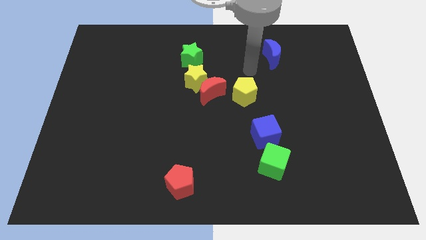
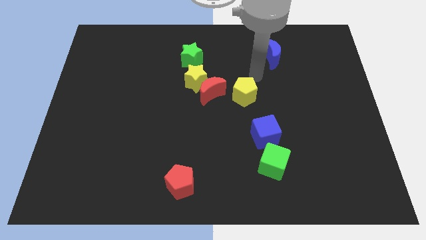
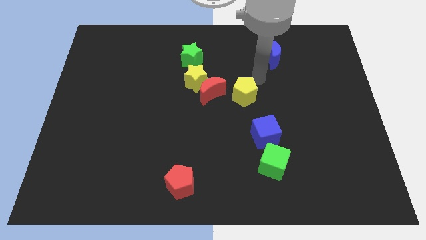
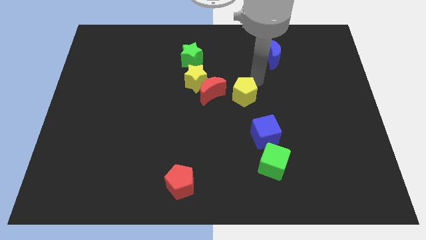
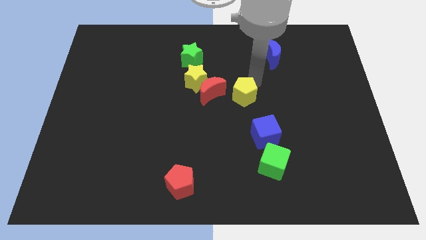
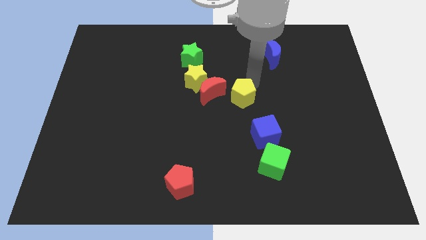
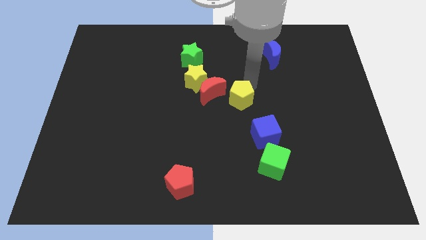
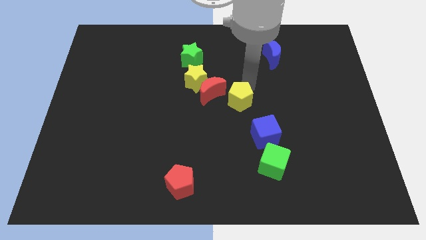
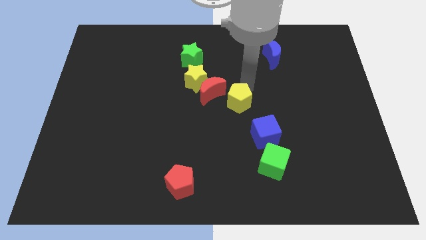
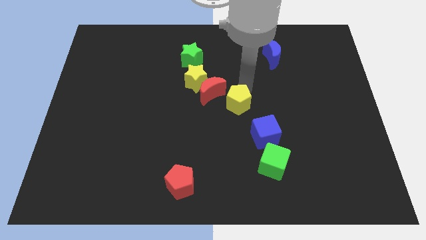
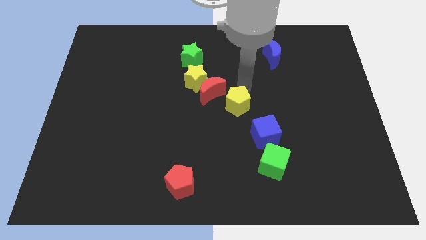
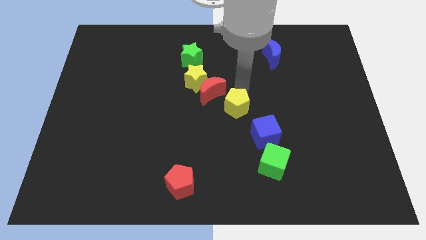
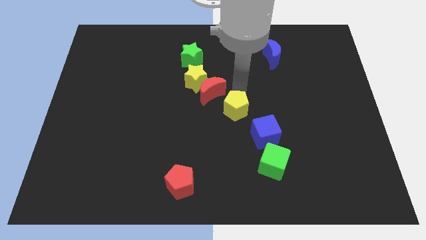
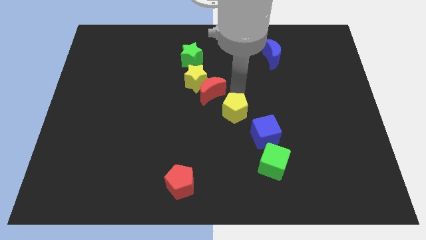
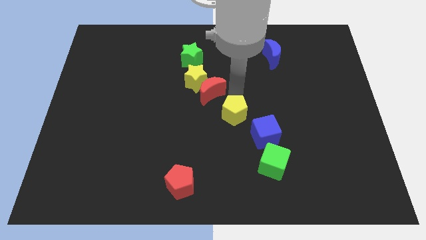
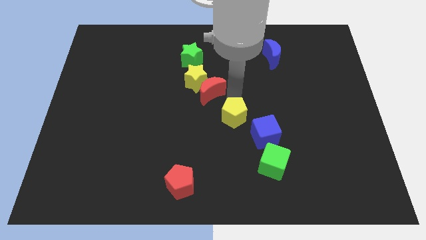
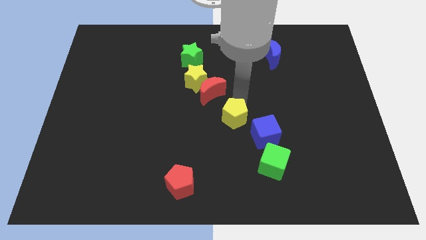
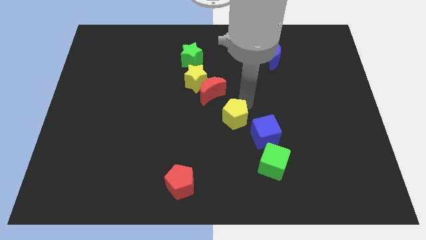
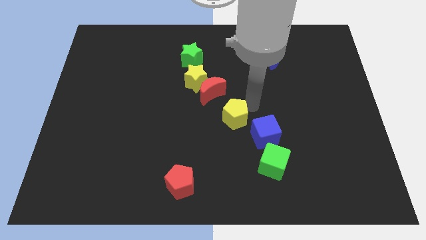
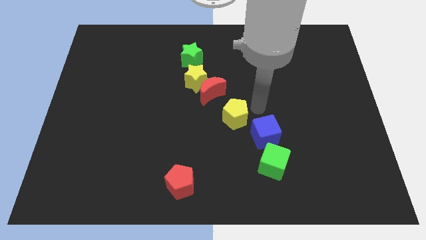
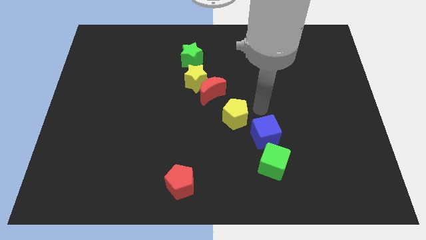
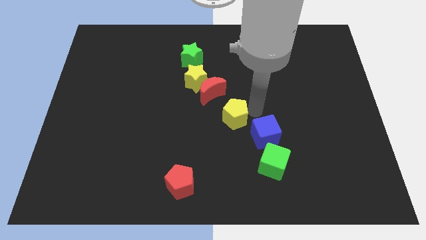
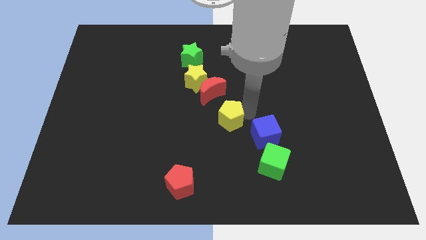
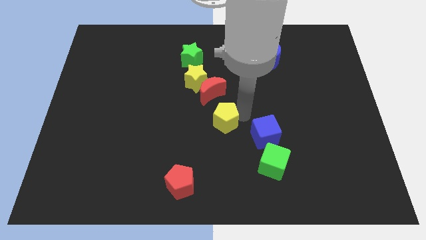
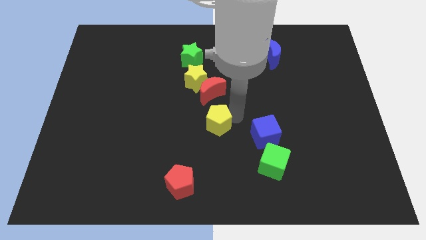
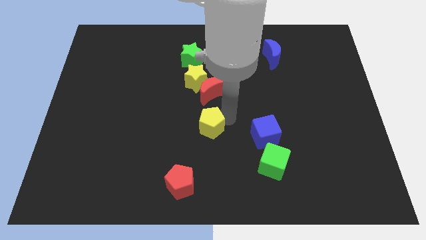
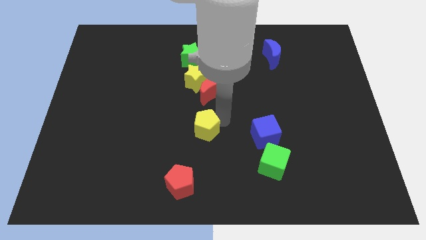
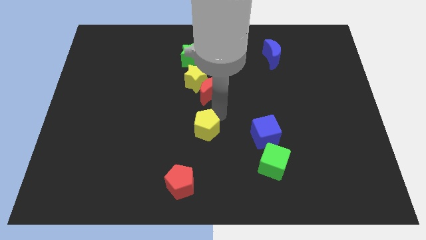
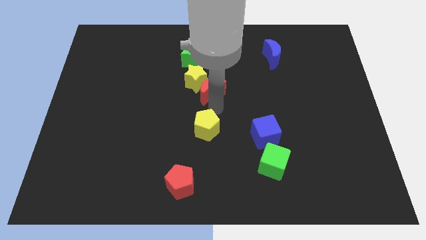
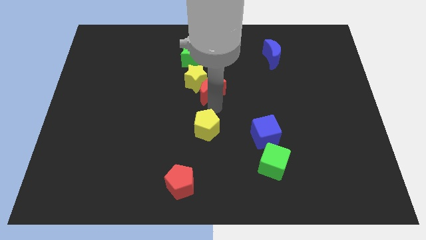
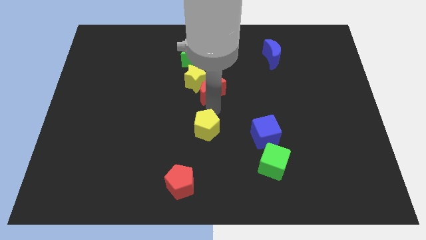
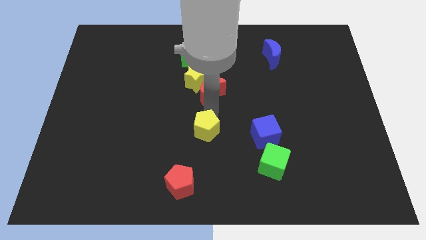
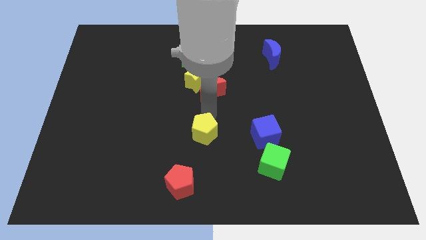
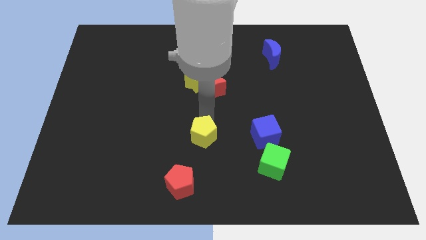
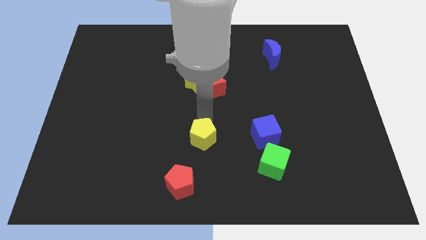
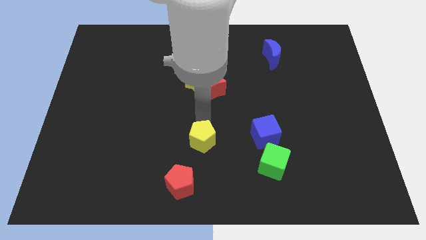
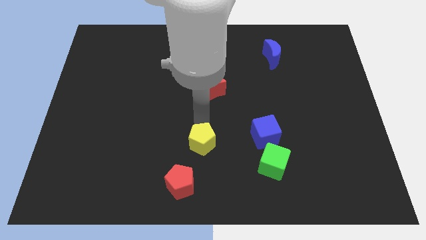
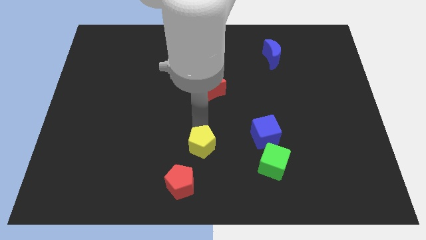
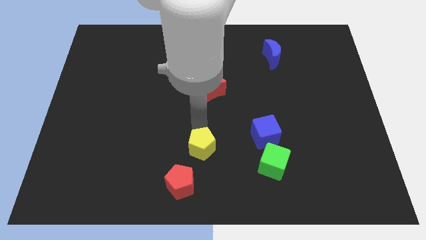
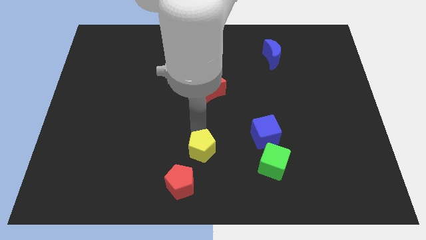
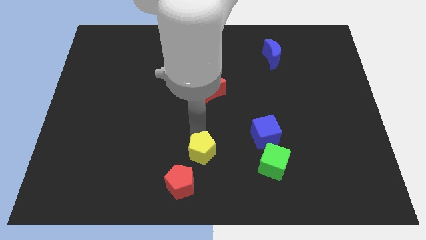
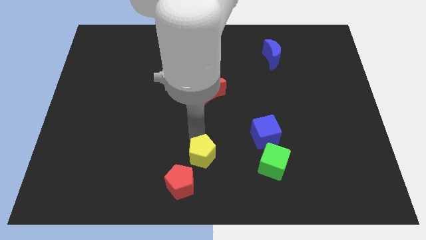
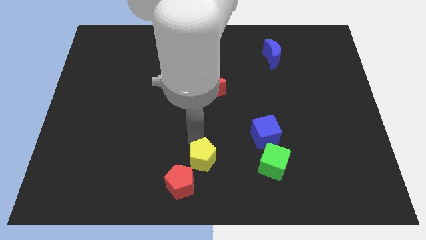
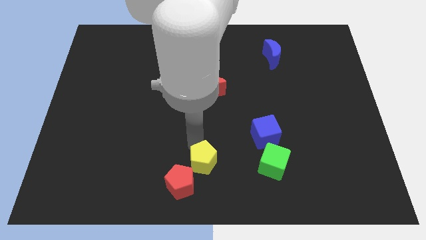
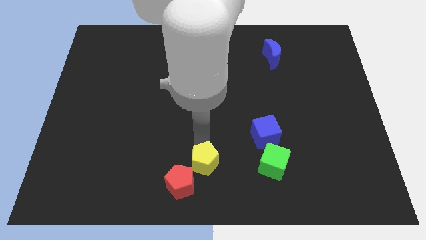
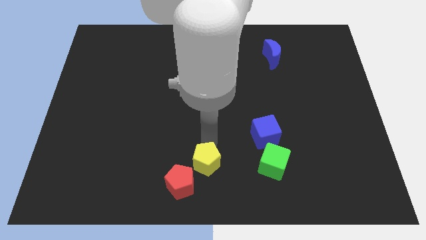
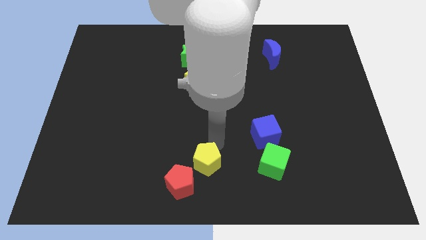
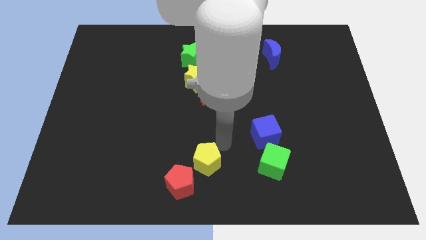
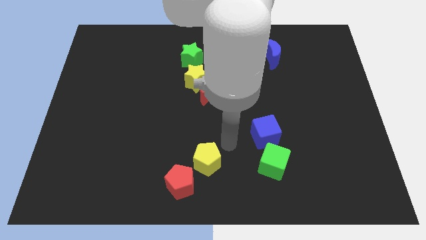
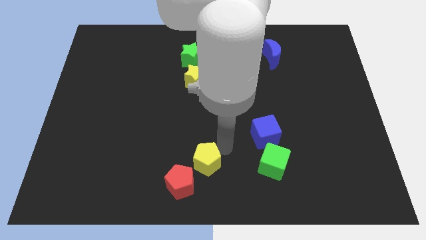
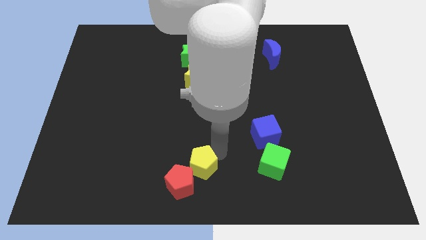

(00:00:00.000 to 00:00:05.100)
move the yellow pentagon close to the red pentagon

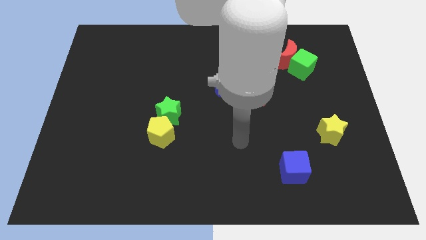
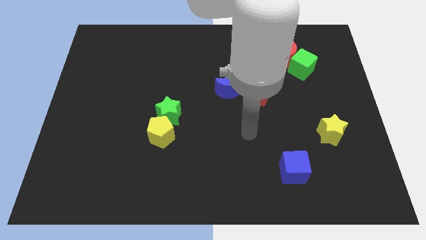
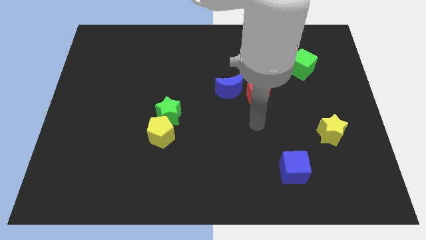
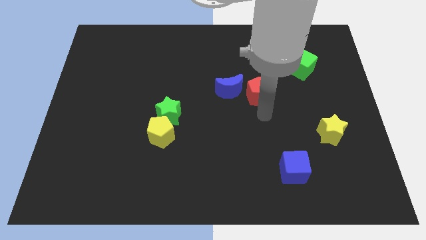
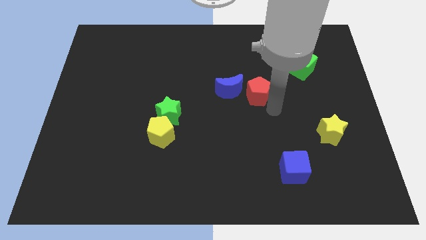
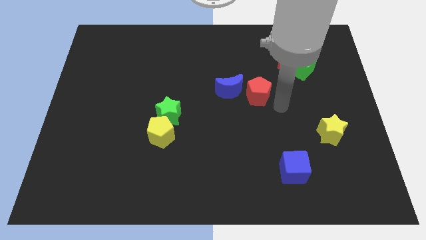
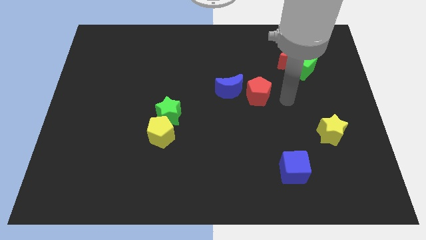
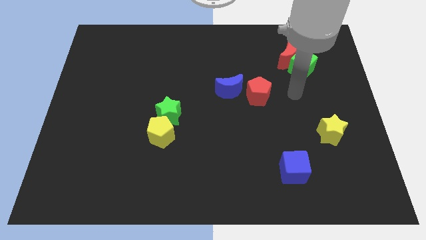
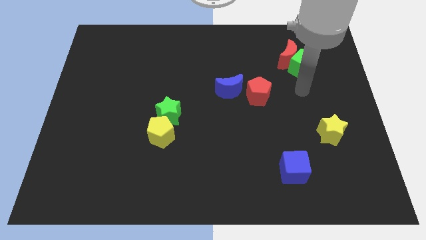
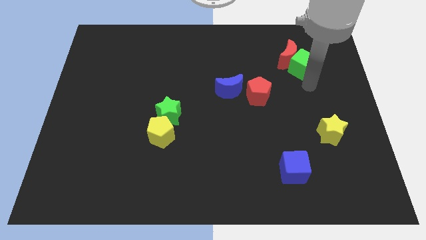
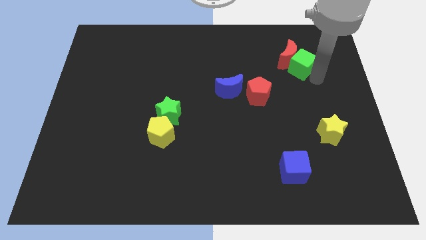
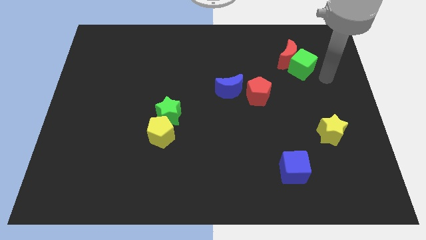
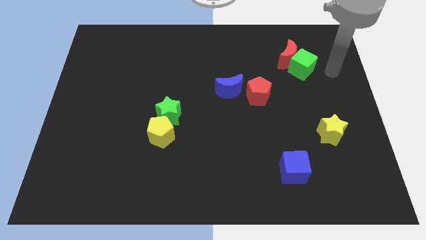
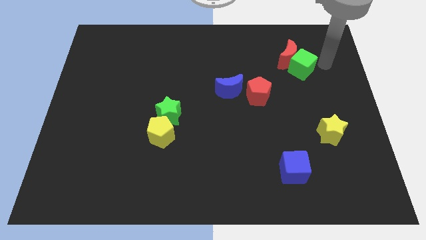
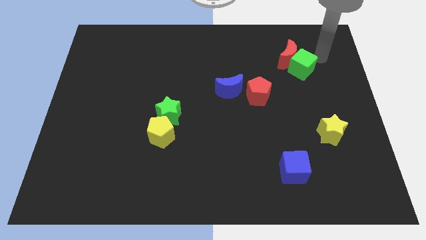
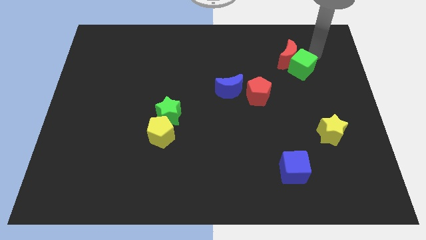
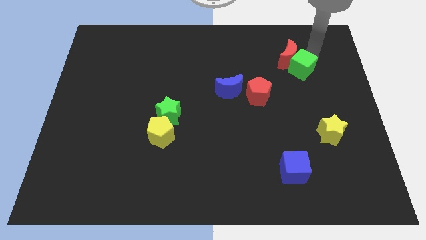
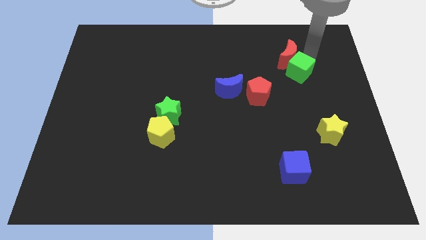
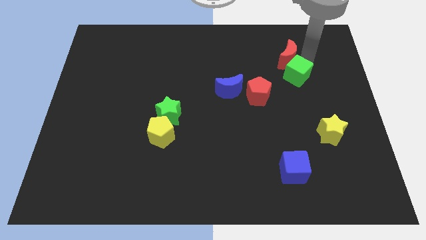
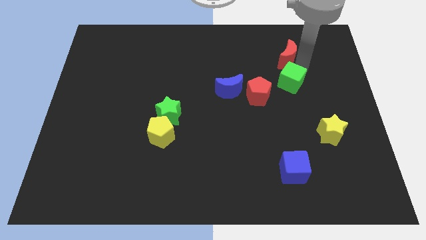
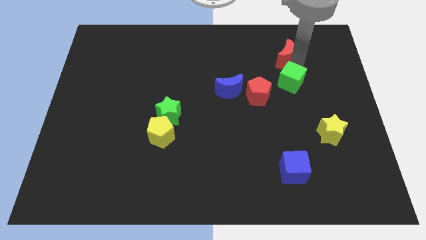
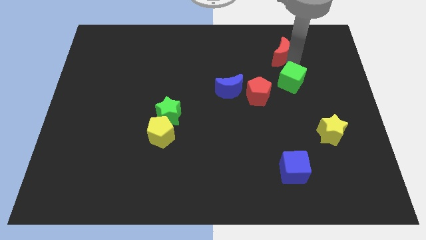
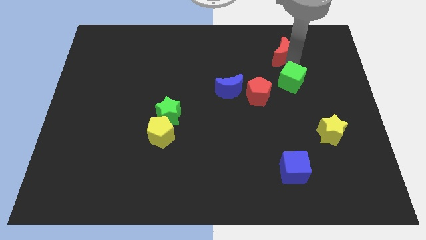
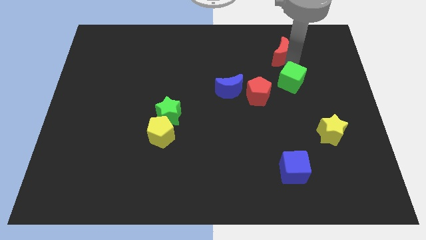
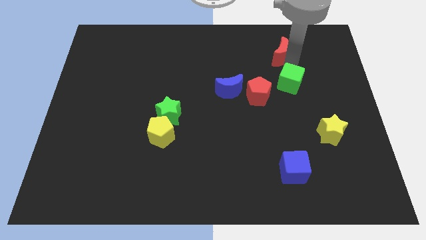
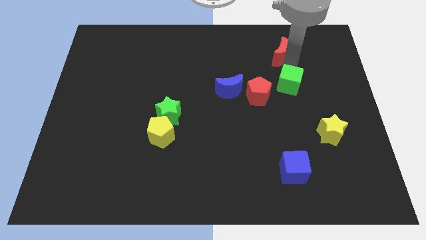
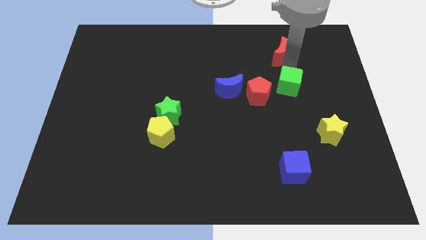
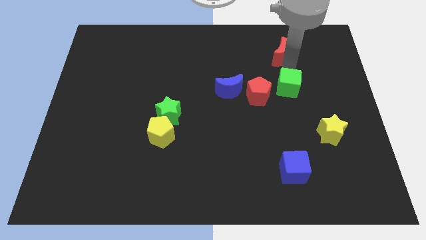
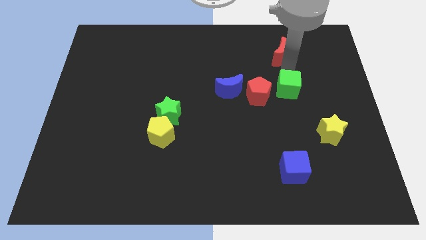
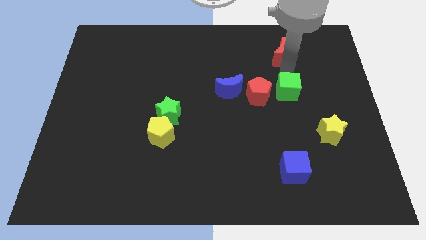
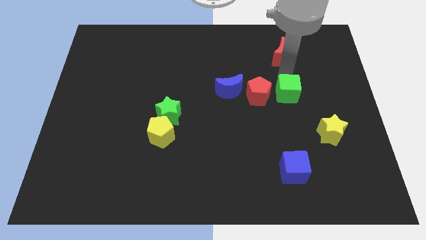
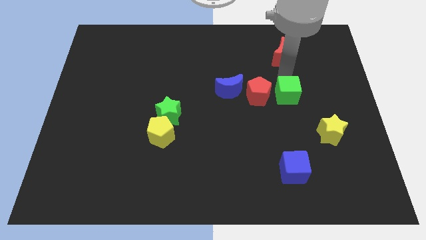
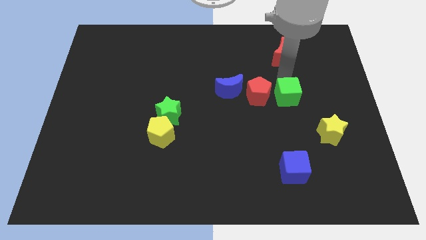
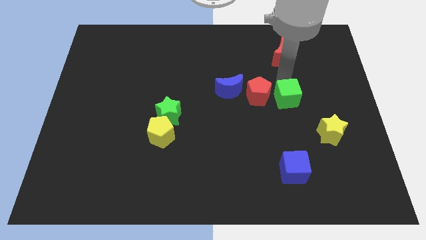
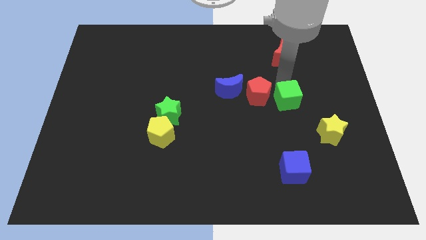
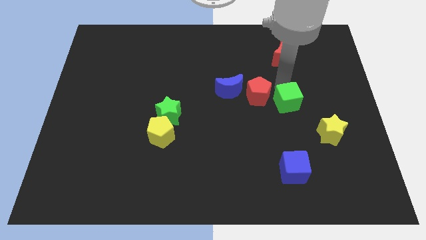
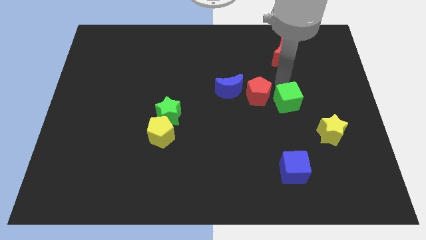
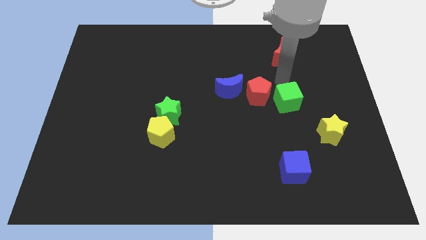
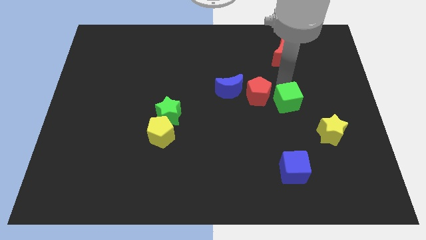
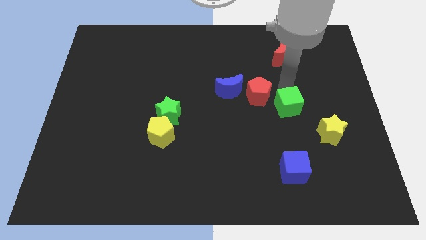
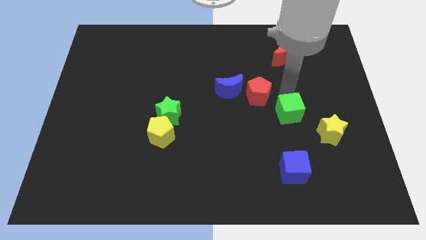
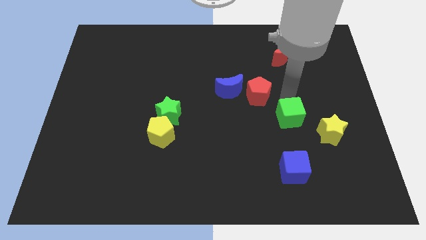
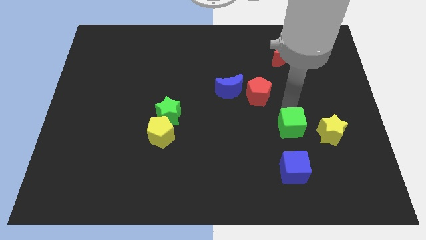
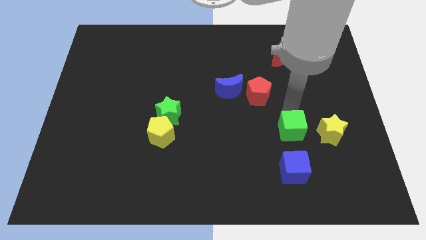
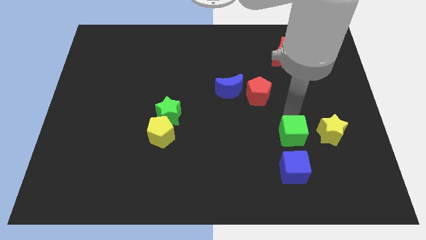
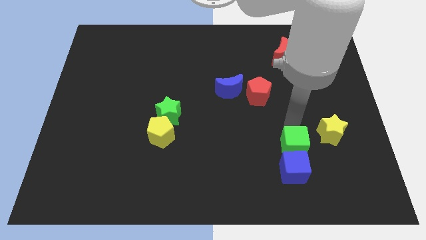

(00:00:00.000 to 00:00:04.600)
slide the green cube next to the blue cube
